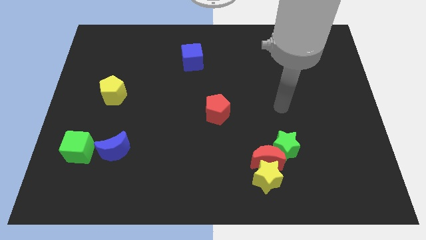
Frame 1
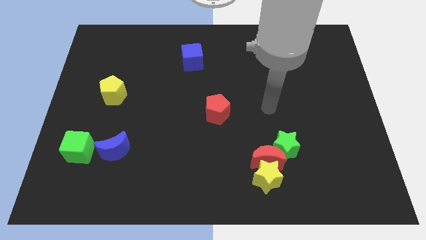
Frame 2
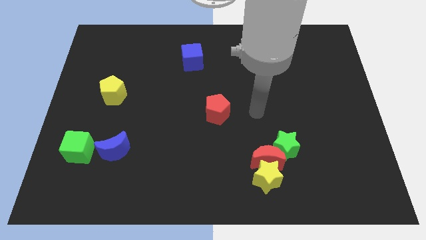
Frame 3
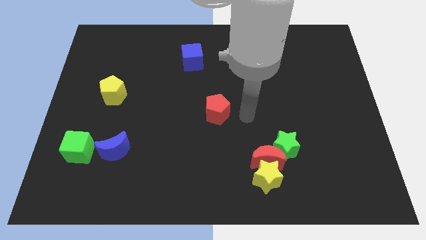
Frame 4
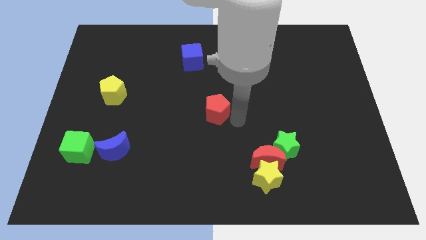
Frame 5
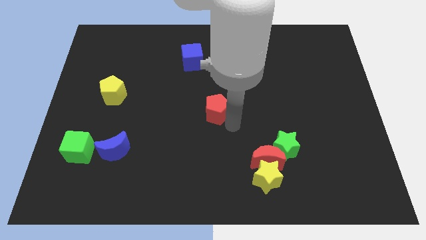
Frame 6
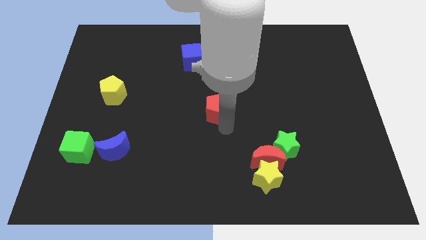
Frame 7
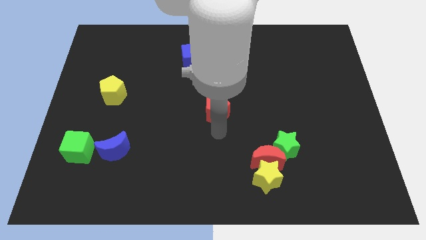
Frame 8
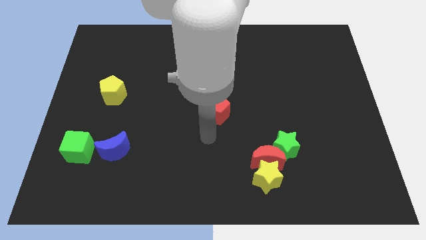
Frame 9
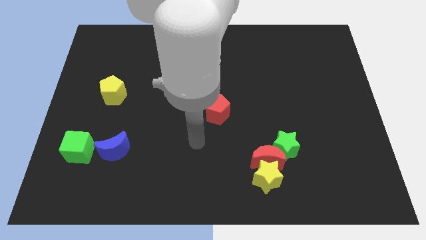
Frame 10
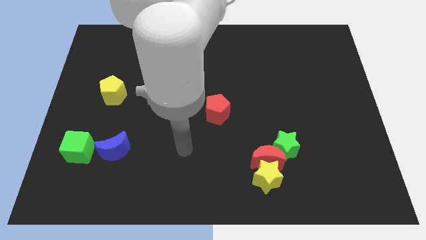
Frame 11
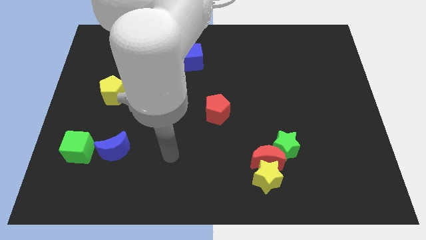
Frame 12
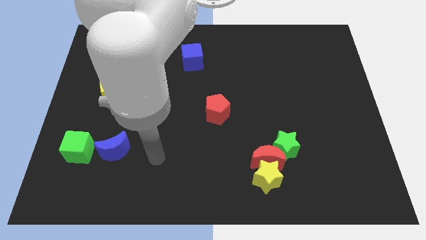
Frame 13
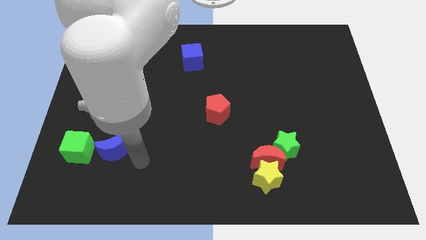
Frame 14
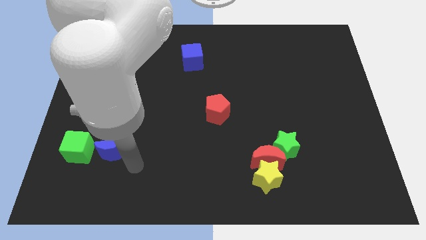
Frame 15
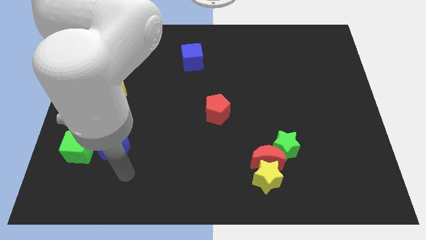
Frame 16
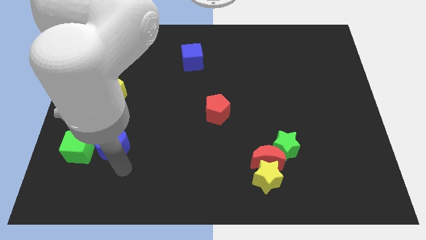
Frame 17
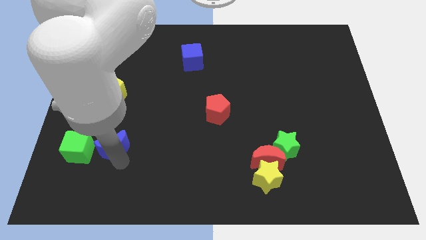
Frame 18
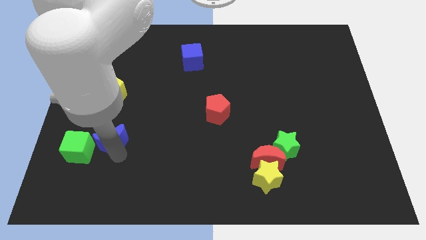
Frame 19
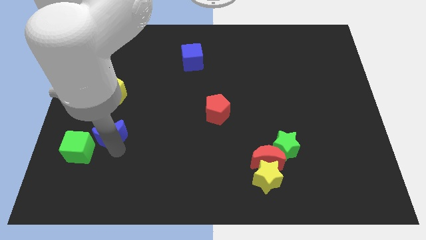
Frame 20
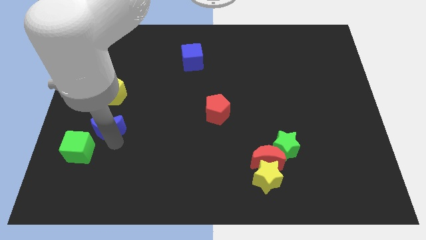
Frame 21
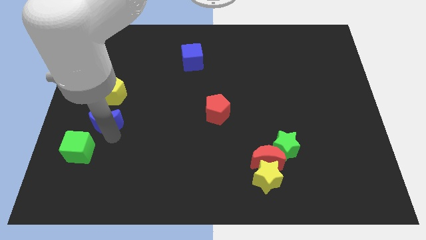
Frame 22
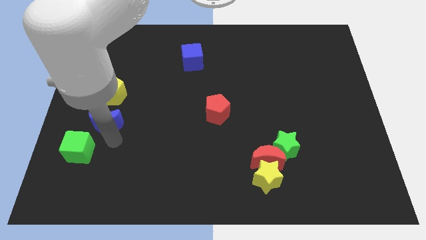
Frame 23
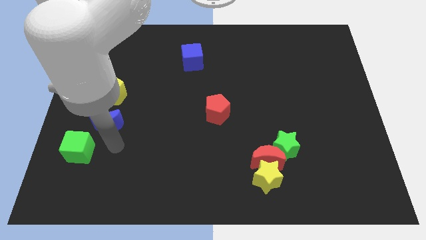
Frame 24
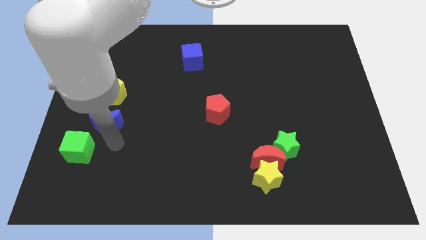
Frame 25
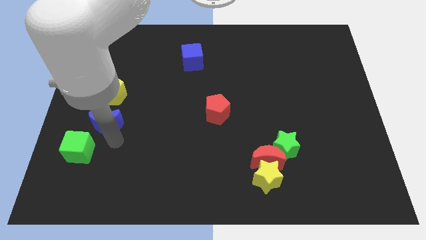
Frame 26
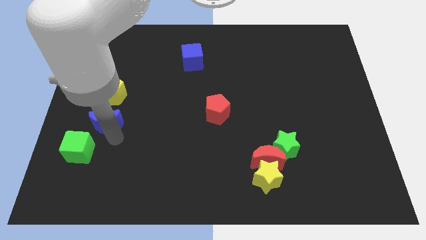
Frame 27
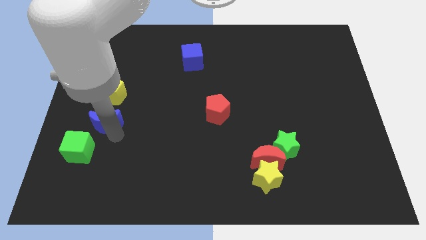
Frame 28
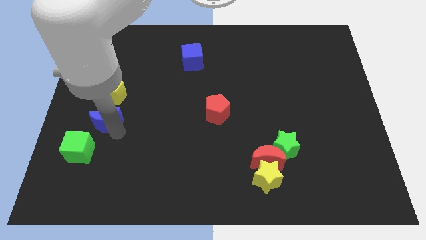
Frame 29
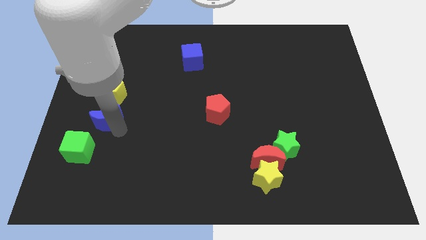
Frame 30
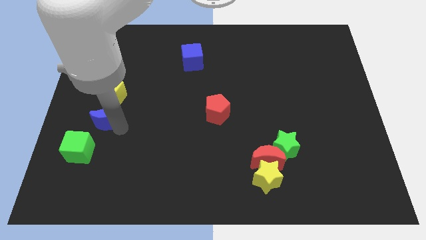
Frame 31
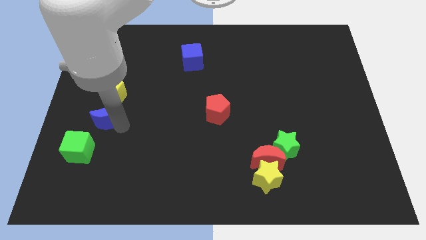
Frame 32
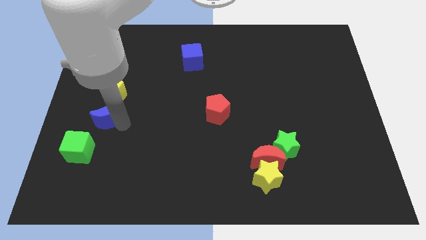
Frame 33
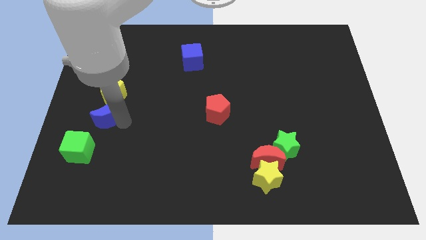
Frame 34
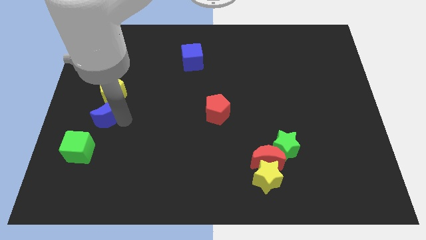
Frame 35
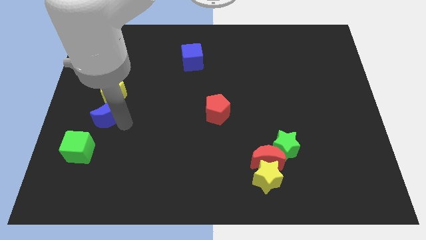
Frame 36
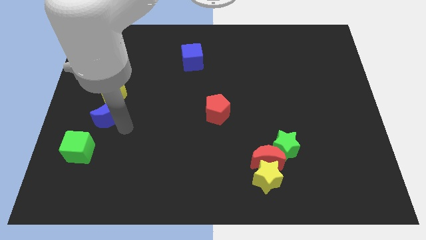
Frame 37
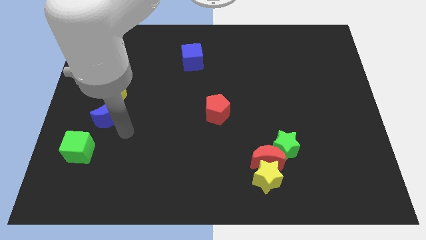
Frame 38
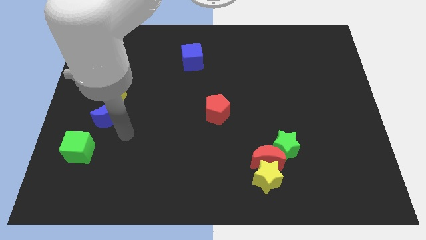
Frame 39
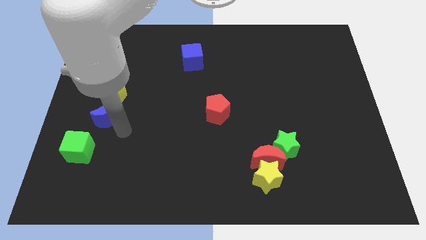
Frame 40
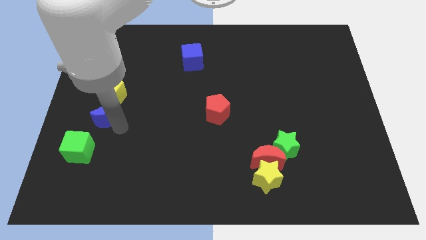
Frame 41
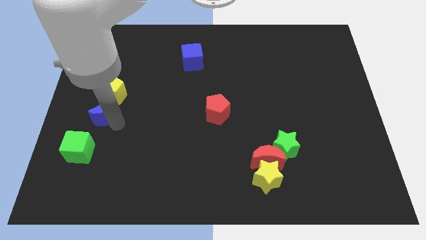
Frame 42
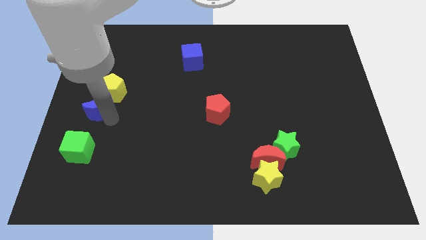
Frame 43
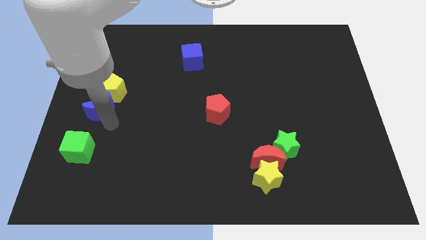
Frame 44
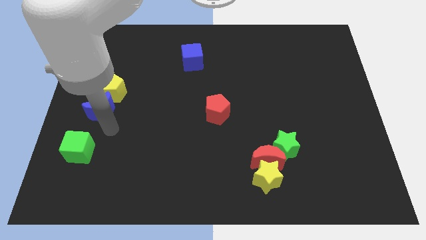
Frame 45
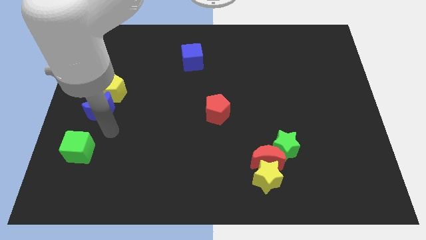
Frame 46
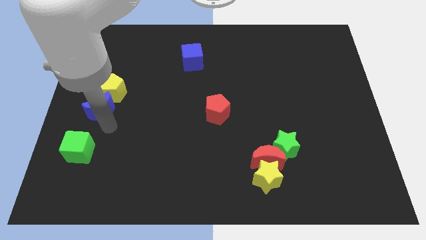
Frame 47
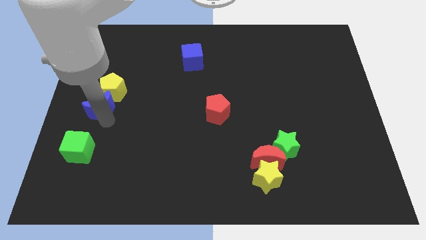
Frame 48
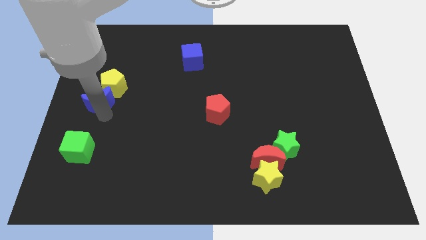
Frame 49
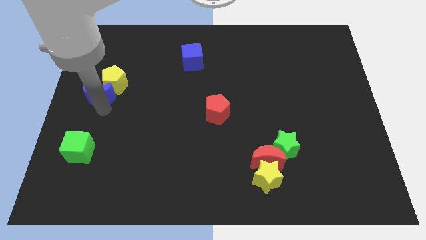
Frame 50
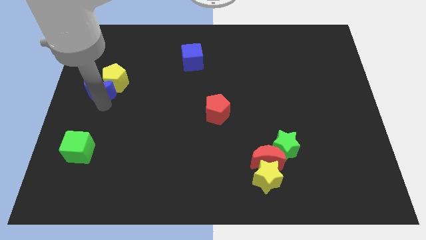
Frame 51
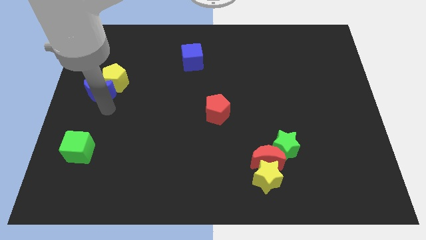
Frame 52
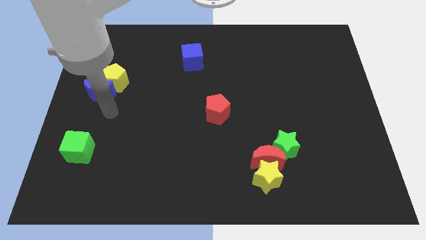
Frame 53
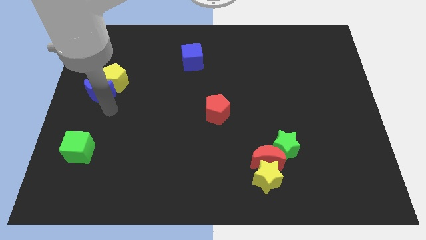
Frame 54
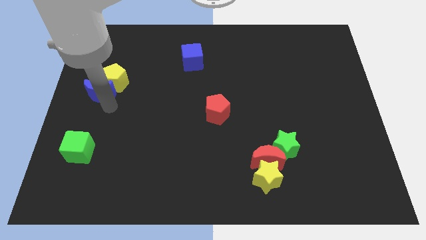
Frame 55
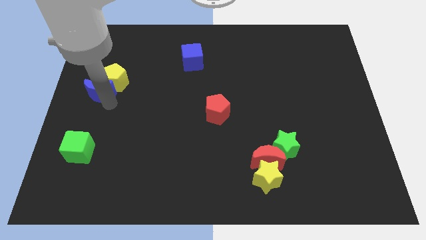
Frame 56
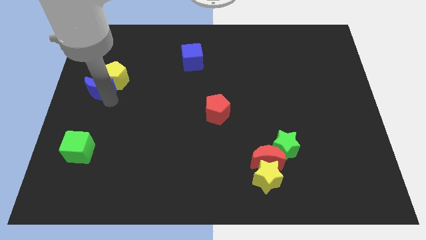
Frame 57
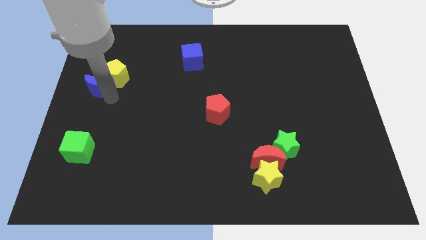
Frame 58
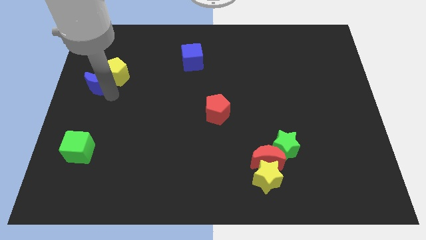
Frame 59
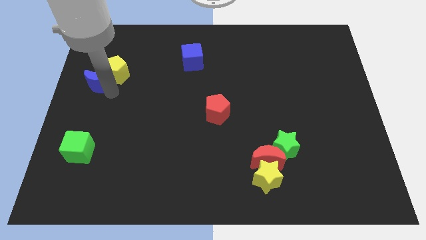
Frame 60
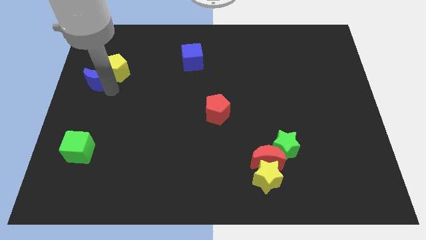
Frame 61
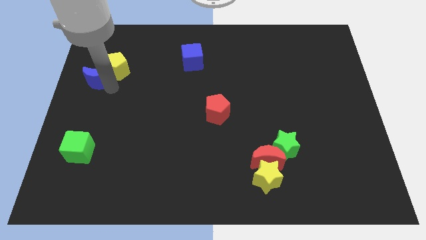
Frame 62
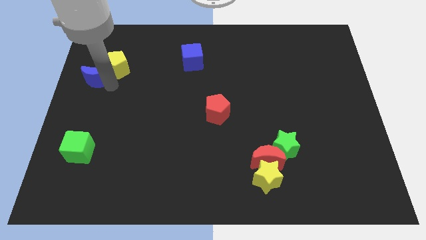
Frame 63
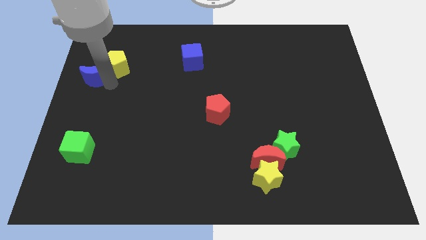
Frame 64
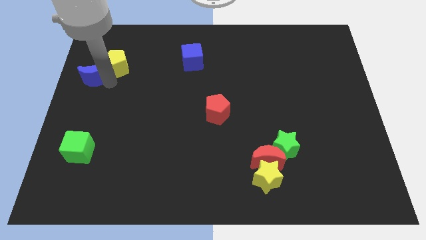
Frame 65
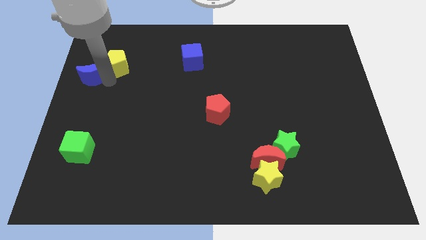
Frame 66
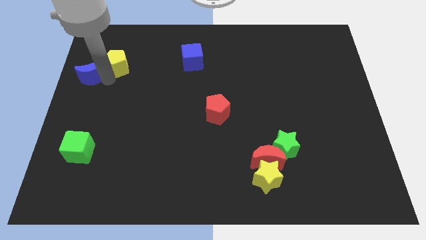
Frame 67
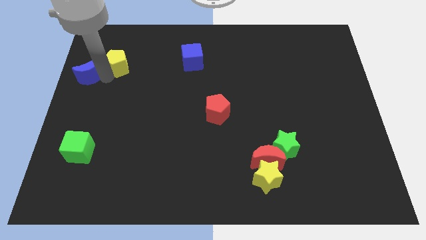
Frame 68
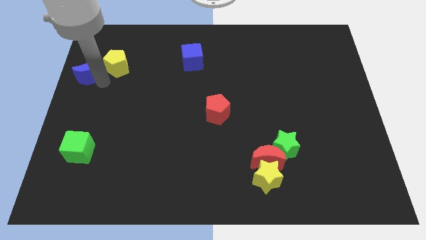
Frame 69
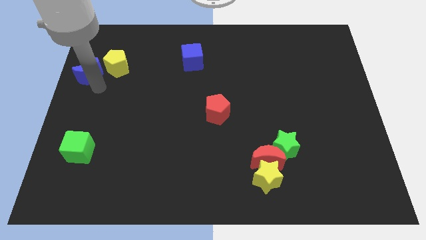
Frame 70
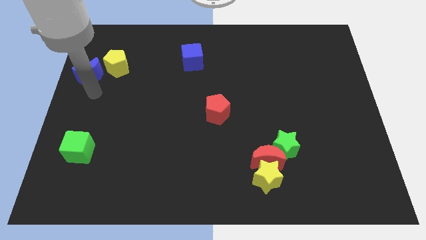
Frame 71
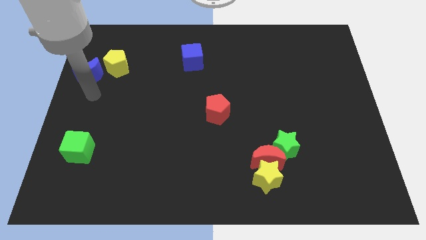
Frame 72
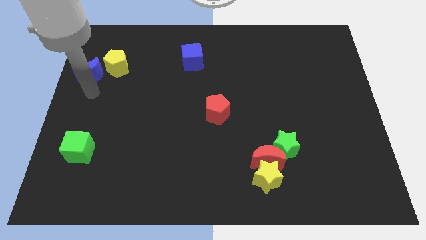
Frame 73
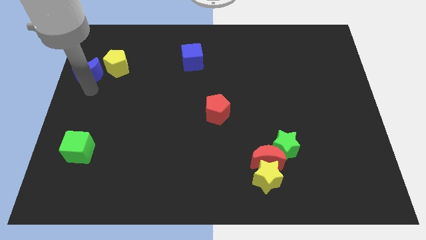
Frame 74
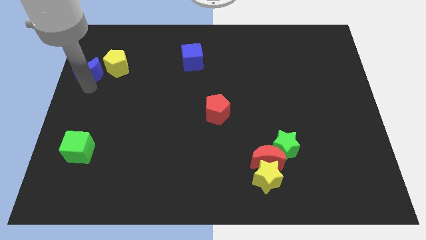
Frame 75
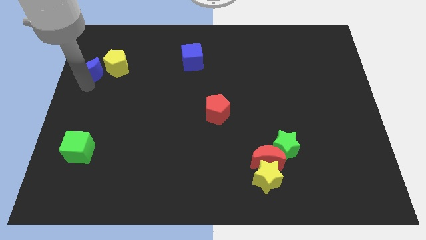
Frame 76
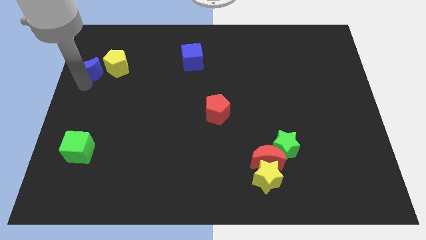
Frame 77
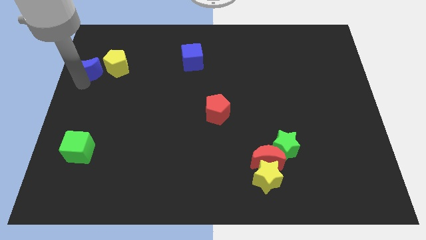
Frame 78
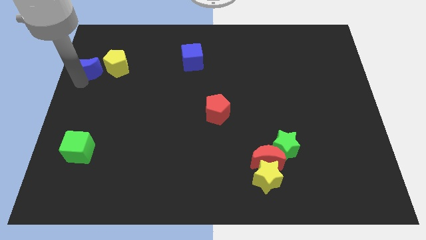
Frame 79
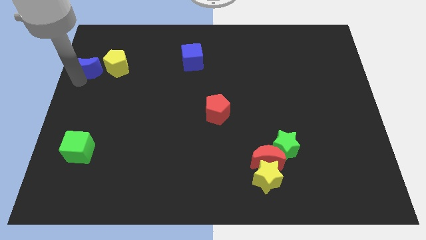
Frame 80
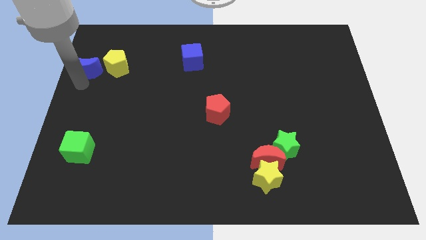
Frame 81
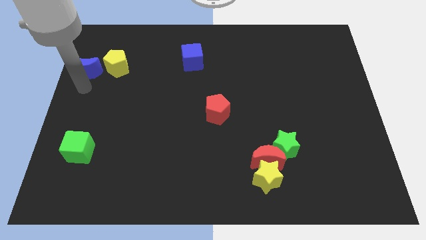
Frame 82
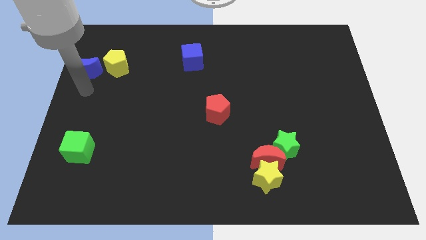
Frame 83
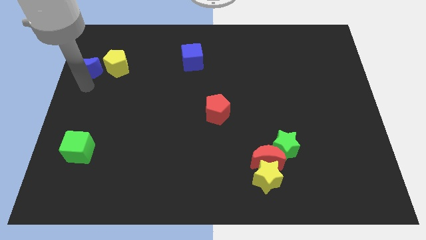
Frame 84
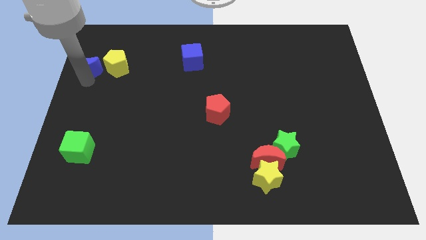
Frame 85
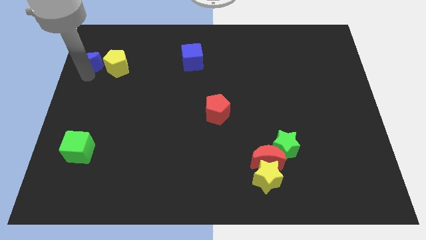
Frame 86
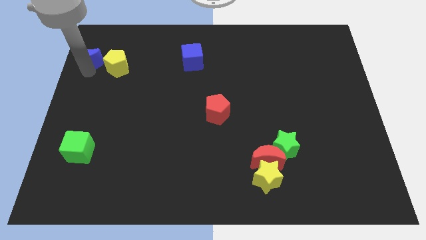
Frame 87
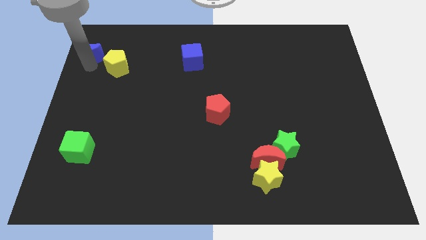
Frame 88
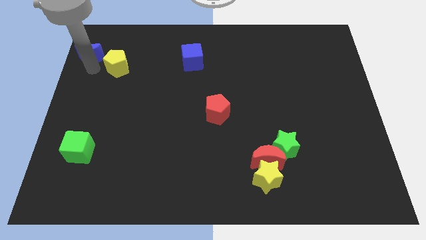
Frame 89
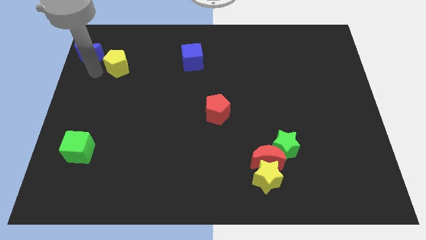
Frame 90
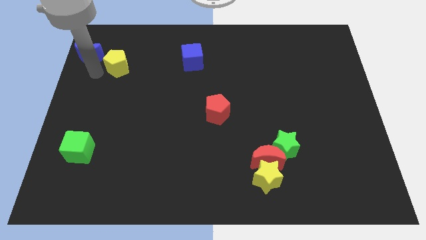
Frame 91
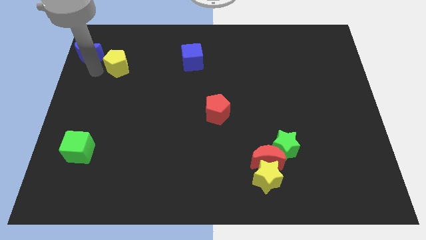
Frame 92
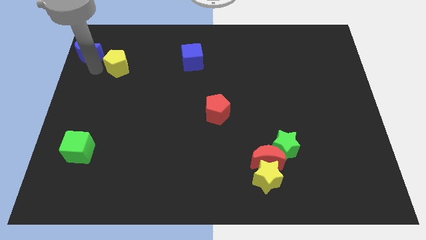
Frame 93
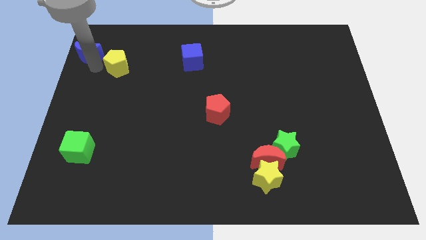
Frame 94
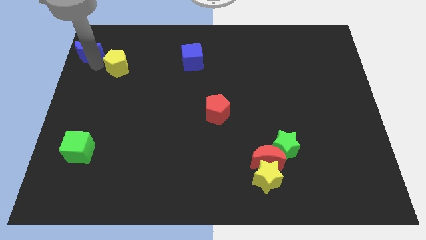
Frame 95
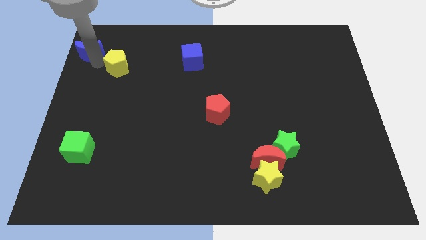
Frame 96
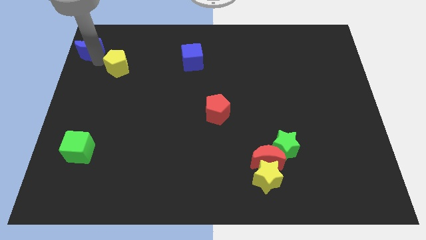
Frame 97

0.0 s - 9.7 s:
put the blue moon to the top left
